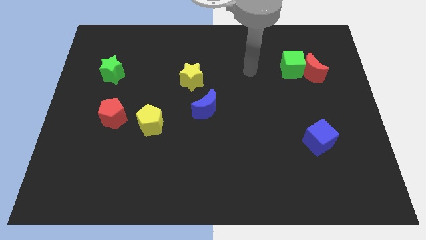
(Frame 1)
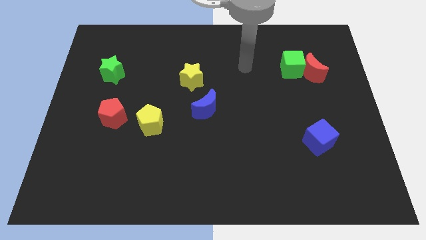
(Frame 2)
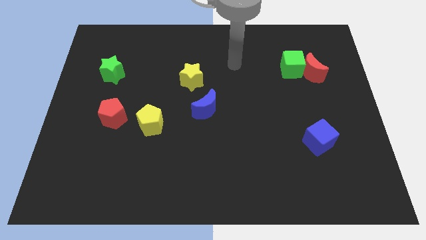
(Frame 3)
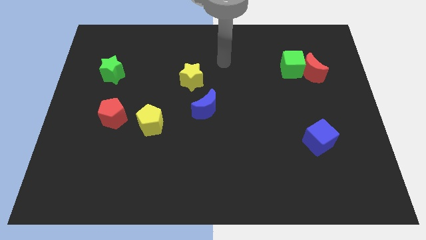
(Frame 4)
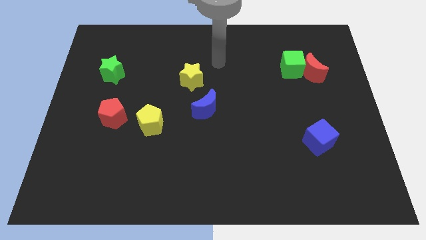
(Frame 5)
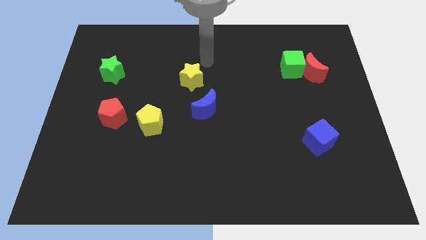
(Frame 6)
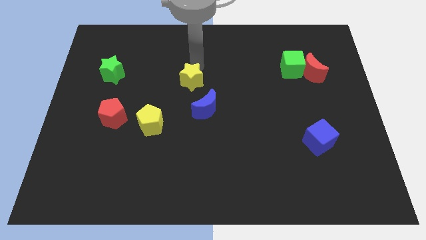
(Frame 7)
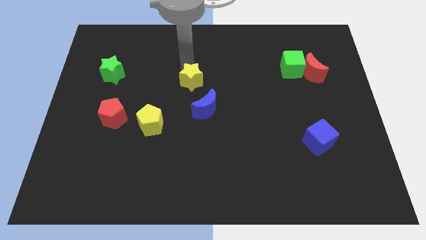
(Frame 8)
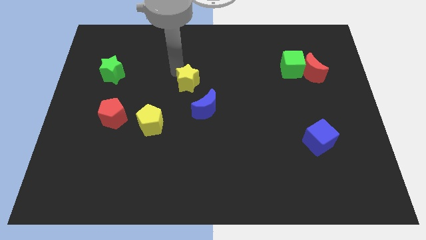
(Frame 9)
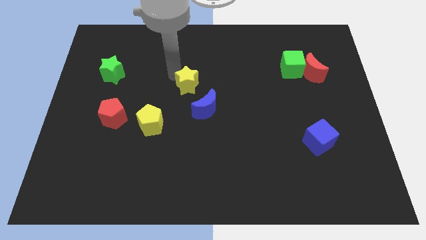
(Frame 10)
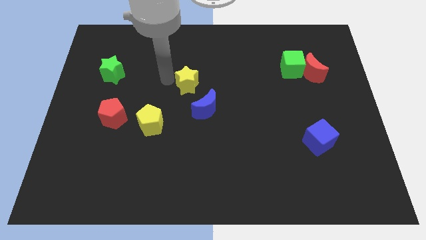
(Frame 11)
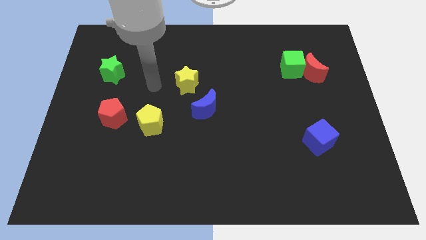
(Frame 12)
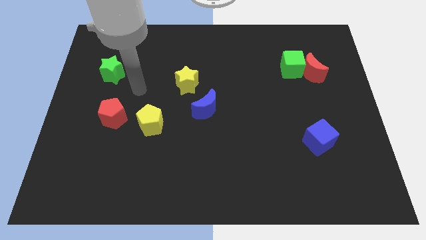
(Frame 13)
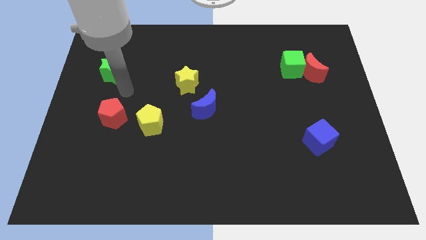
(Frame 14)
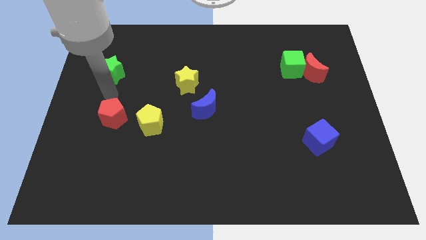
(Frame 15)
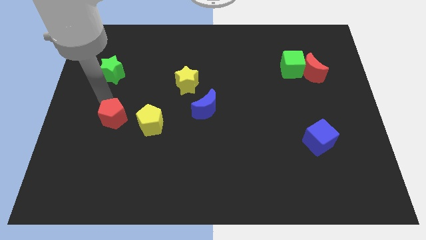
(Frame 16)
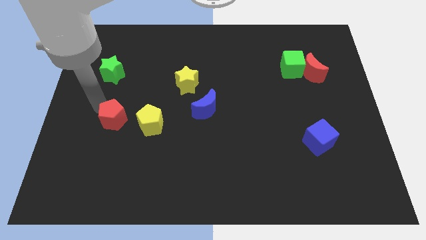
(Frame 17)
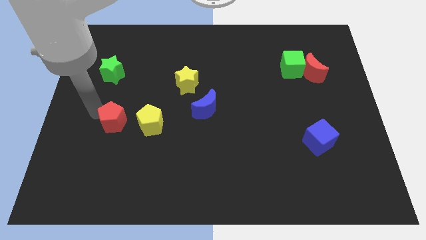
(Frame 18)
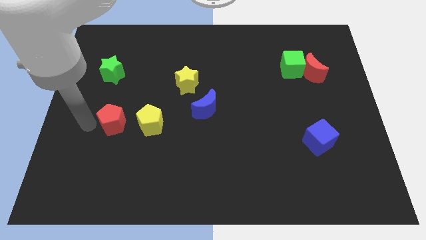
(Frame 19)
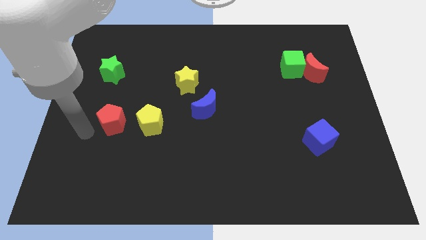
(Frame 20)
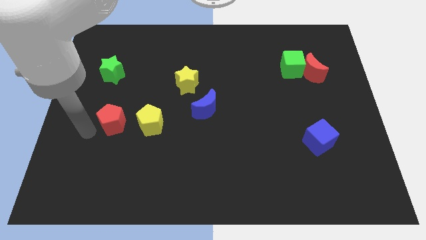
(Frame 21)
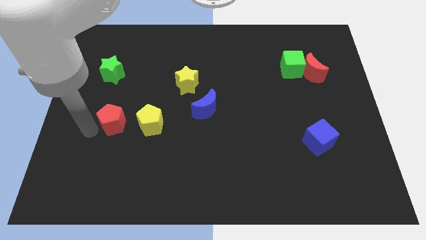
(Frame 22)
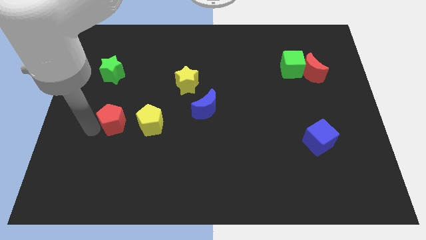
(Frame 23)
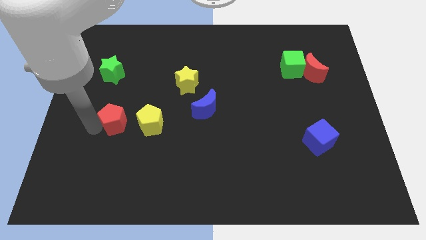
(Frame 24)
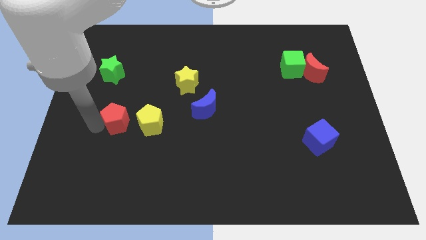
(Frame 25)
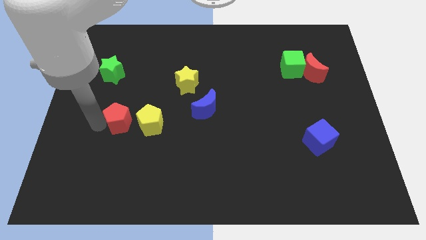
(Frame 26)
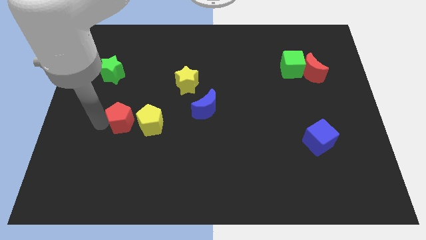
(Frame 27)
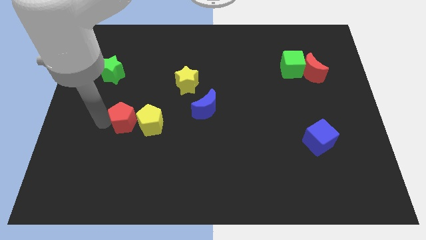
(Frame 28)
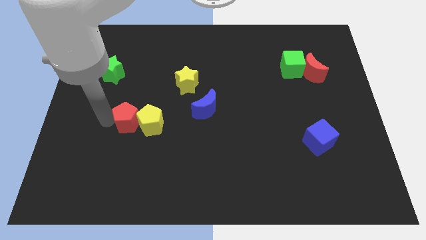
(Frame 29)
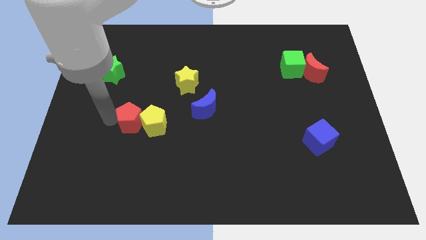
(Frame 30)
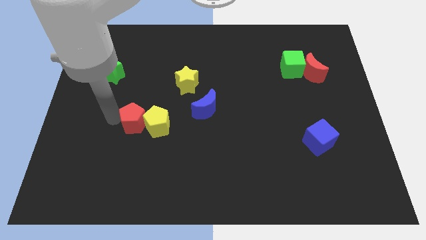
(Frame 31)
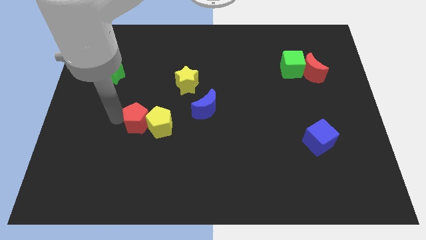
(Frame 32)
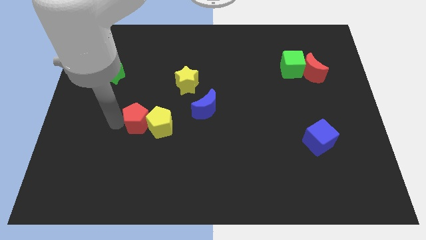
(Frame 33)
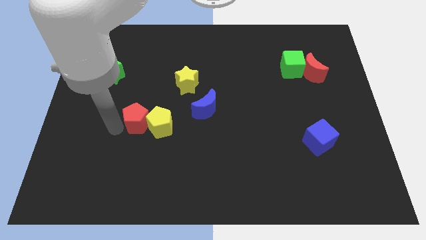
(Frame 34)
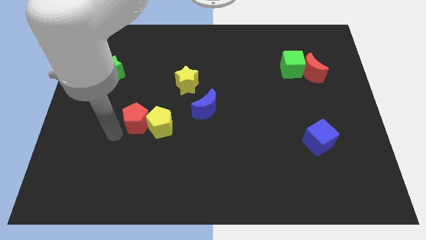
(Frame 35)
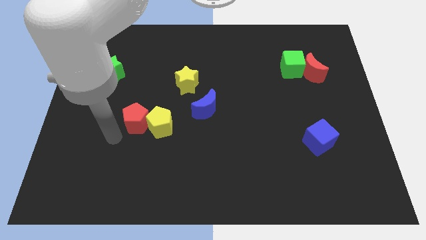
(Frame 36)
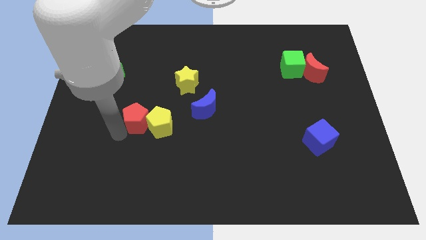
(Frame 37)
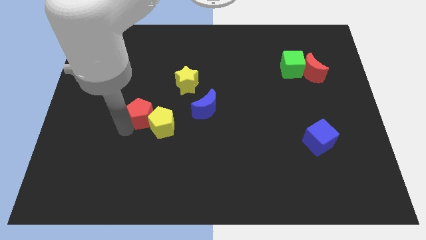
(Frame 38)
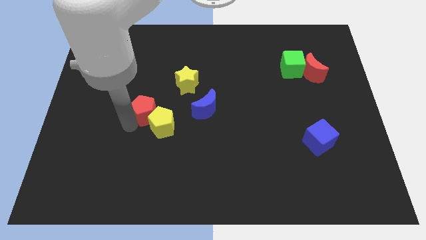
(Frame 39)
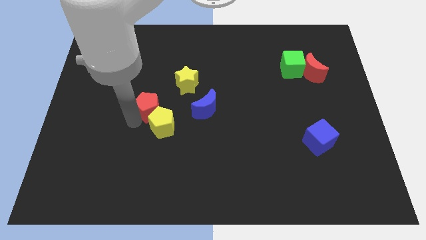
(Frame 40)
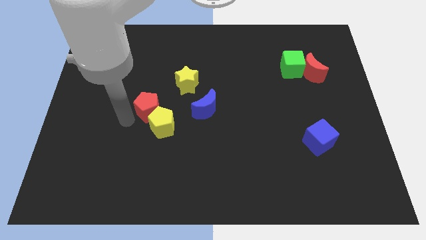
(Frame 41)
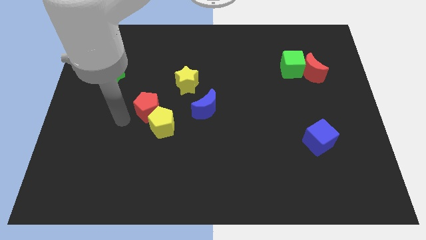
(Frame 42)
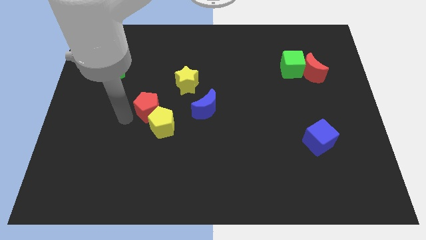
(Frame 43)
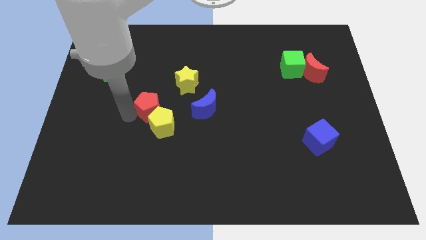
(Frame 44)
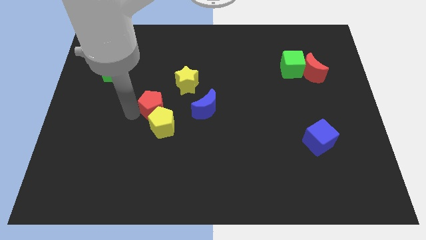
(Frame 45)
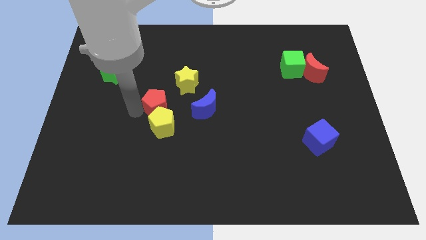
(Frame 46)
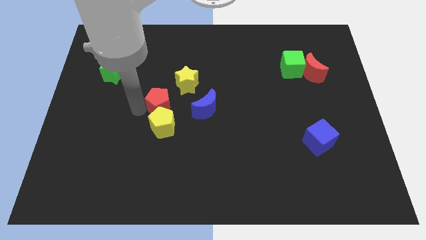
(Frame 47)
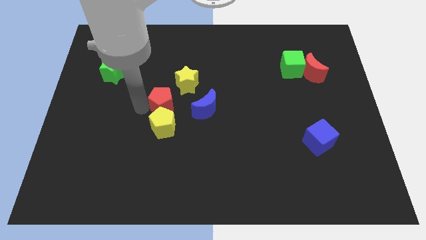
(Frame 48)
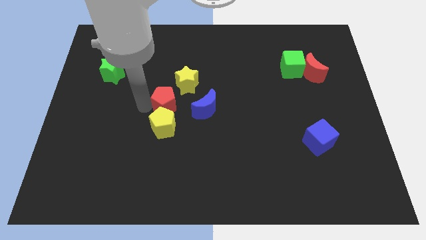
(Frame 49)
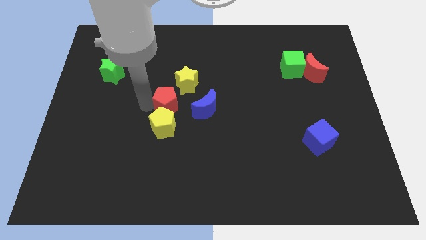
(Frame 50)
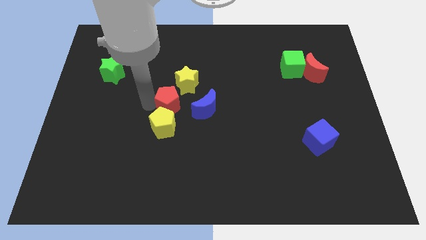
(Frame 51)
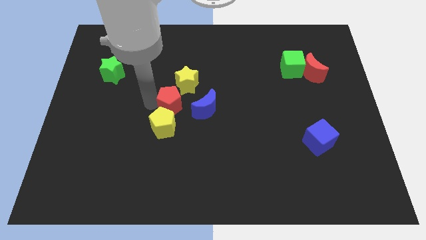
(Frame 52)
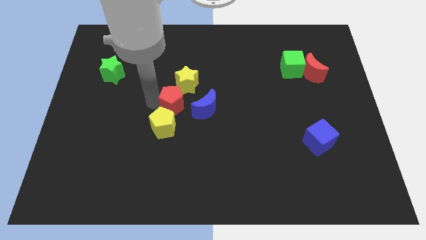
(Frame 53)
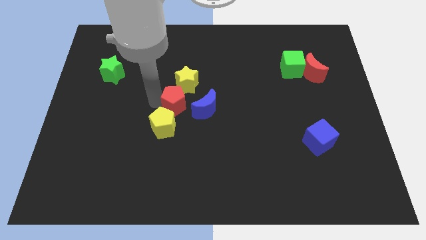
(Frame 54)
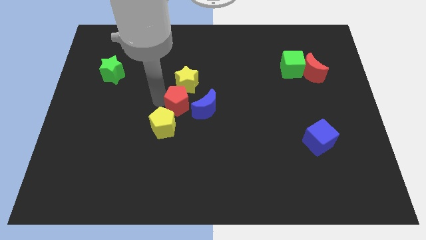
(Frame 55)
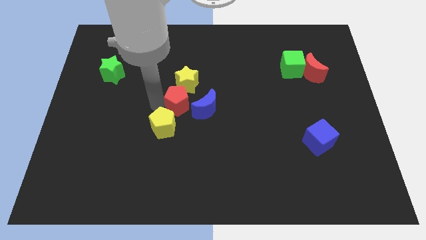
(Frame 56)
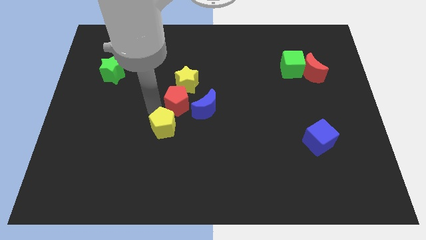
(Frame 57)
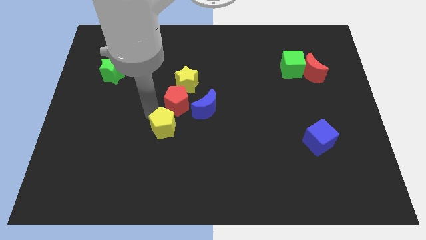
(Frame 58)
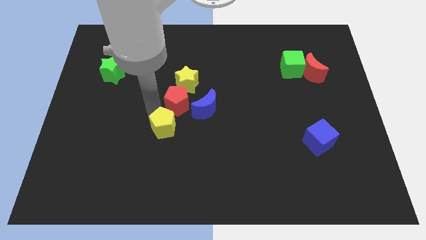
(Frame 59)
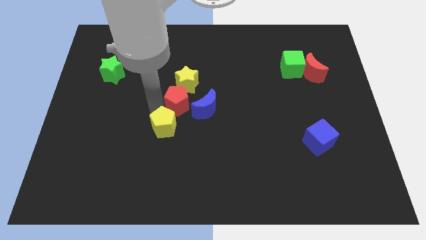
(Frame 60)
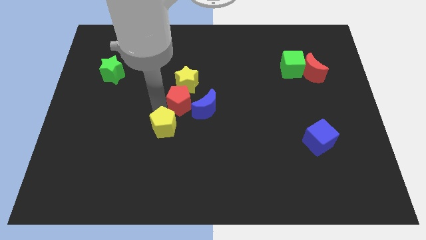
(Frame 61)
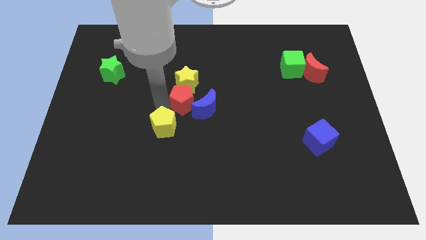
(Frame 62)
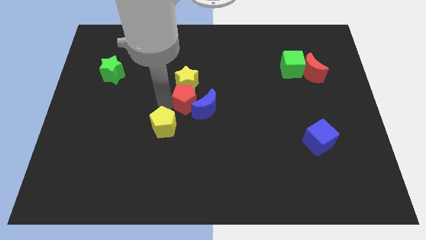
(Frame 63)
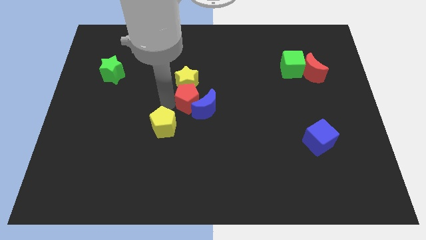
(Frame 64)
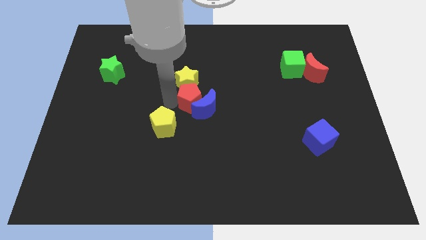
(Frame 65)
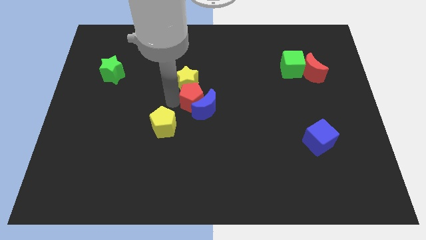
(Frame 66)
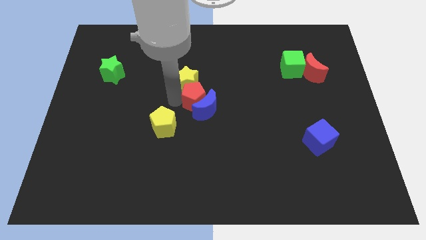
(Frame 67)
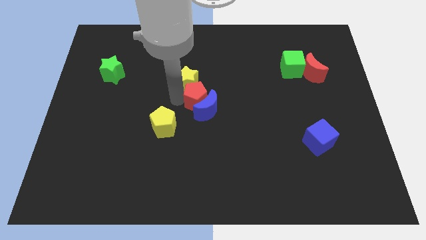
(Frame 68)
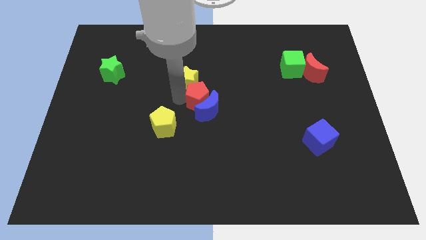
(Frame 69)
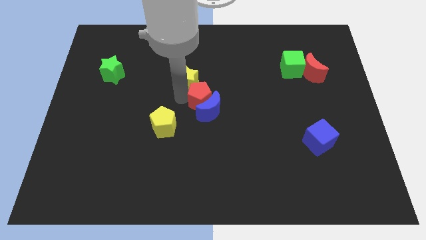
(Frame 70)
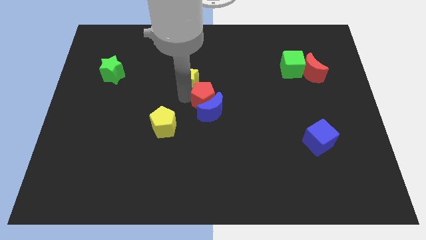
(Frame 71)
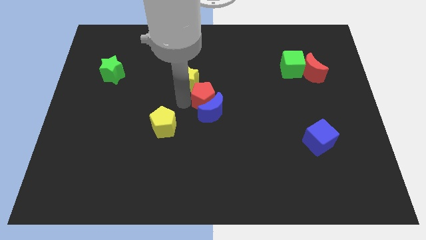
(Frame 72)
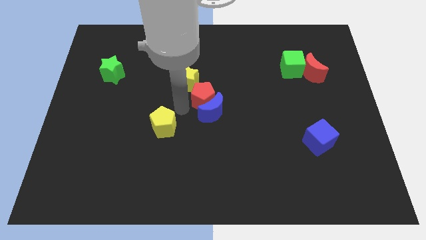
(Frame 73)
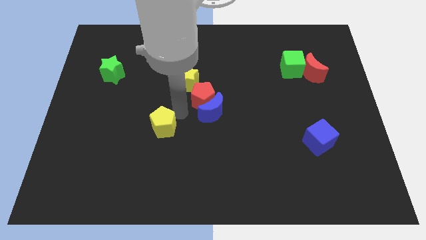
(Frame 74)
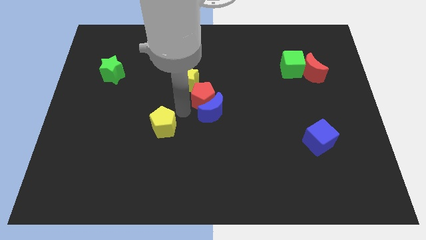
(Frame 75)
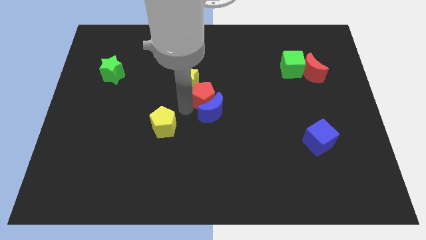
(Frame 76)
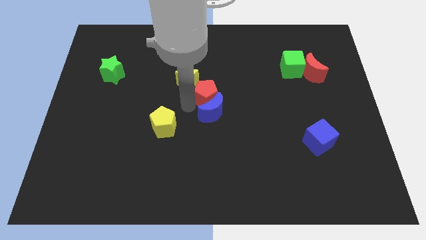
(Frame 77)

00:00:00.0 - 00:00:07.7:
push the red pentagon to the right of the yellow star
